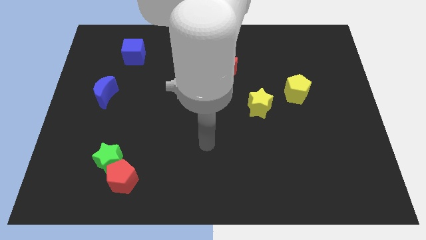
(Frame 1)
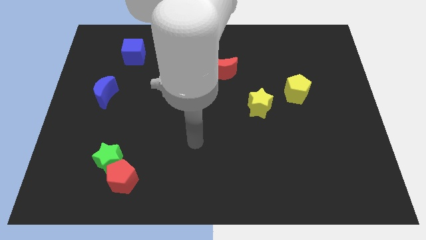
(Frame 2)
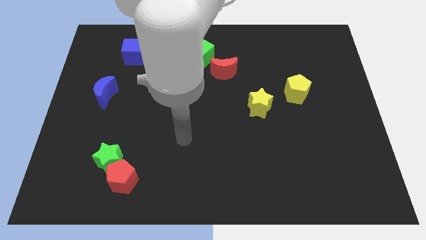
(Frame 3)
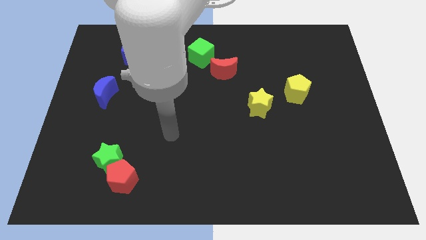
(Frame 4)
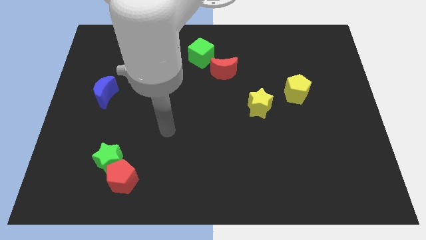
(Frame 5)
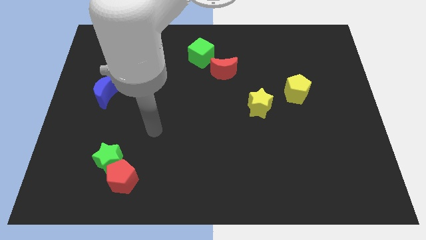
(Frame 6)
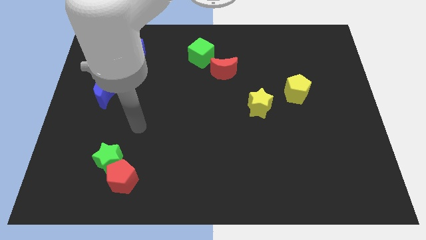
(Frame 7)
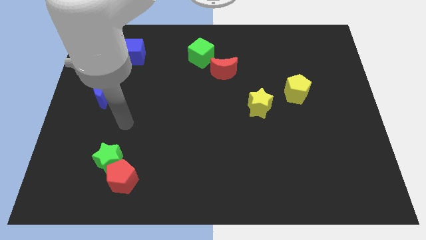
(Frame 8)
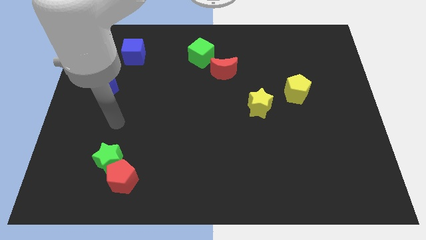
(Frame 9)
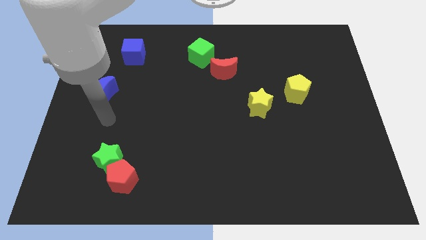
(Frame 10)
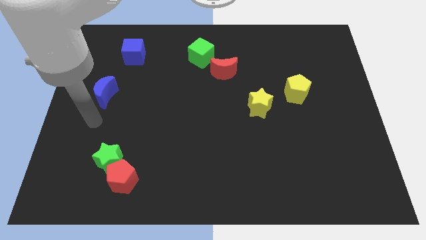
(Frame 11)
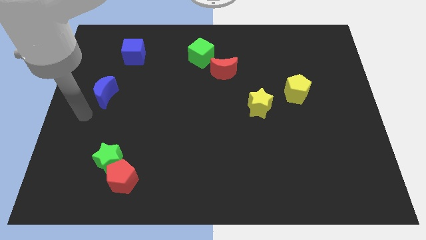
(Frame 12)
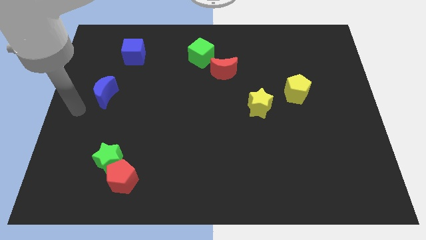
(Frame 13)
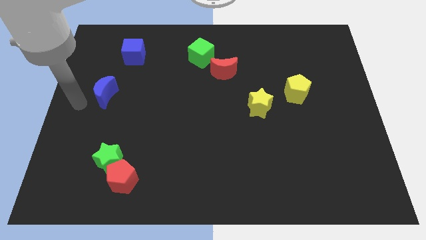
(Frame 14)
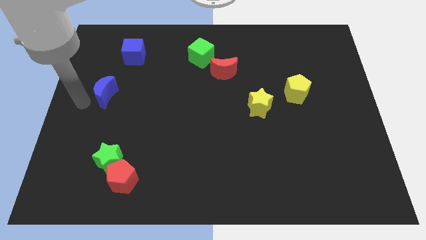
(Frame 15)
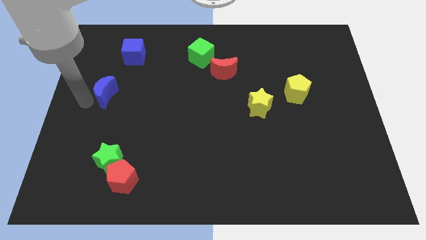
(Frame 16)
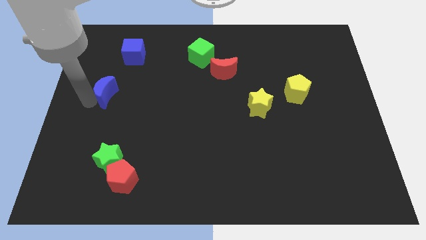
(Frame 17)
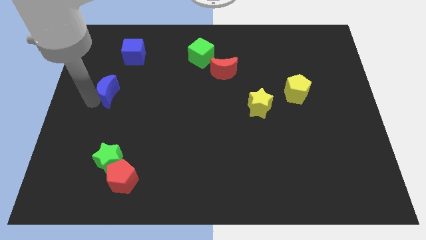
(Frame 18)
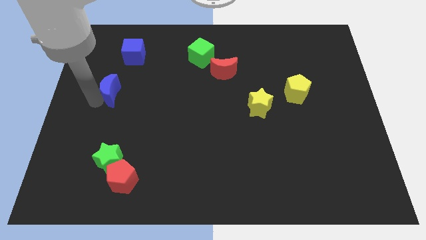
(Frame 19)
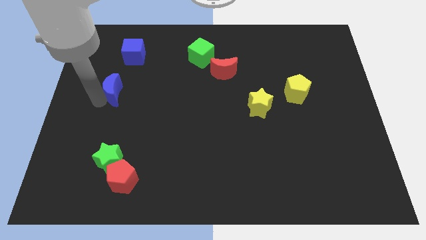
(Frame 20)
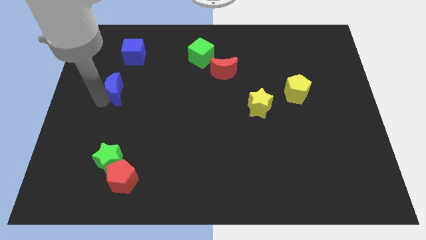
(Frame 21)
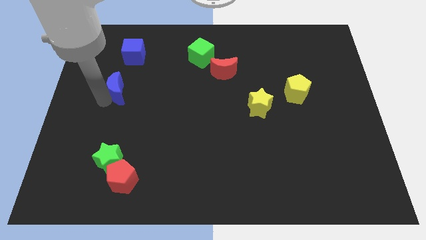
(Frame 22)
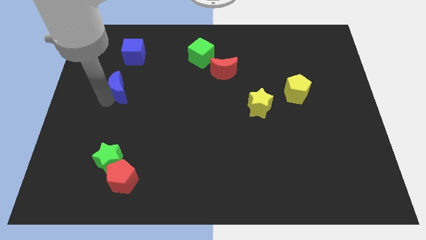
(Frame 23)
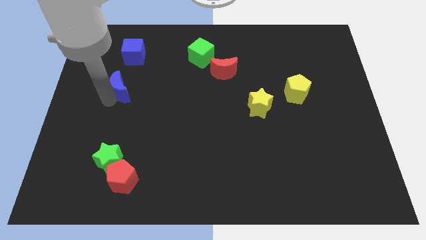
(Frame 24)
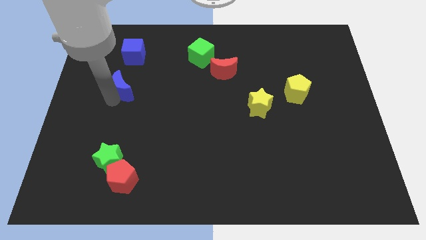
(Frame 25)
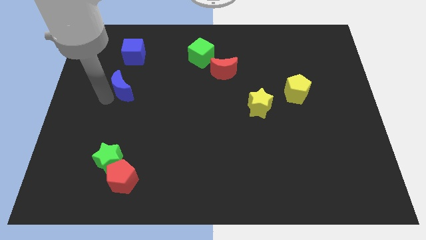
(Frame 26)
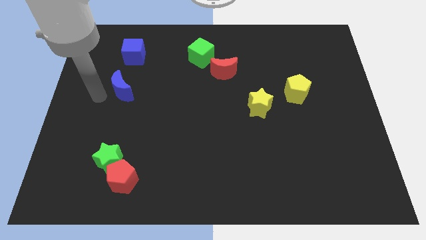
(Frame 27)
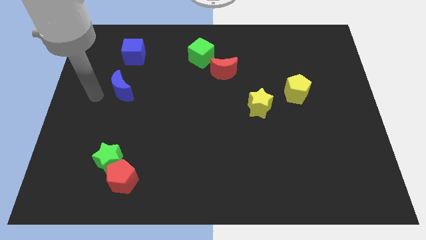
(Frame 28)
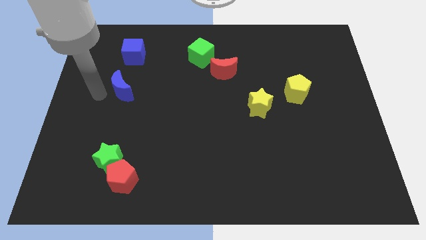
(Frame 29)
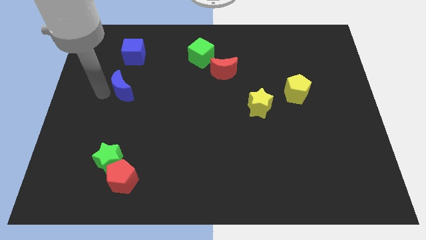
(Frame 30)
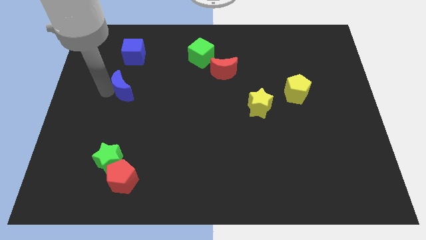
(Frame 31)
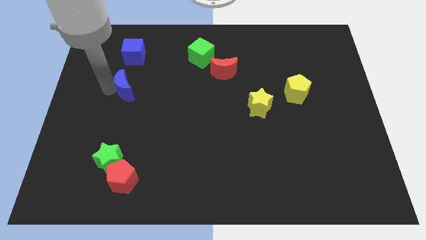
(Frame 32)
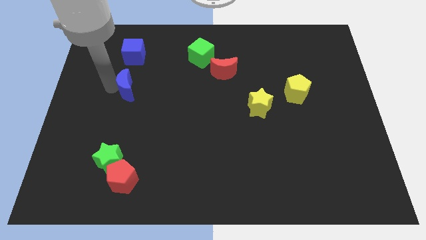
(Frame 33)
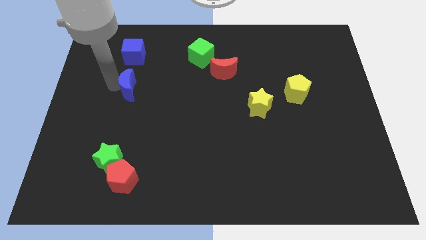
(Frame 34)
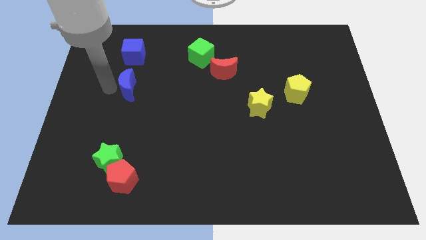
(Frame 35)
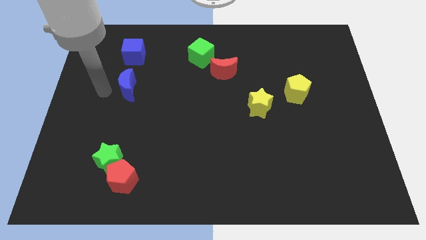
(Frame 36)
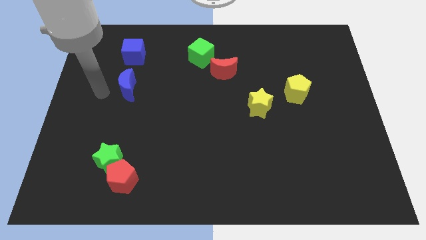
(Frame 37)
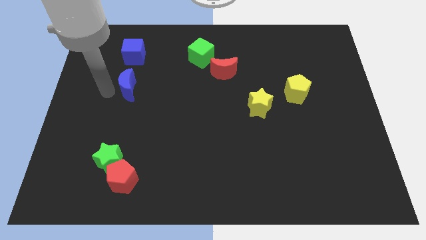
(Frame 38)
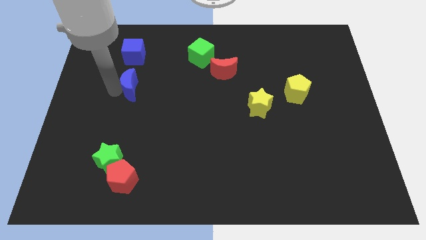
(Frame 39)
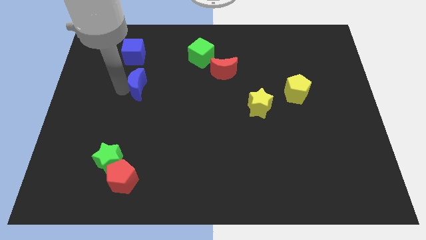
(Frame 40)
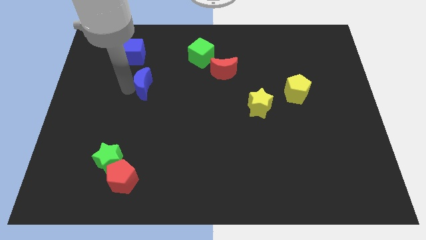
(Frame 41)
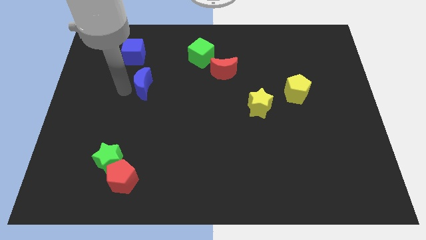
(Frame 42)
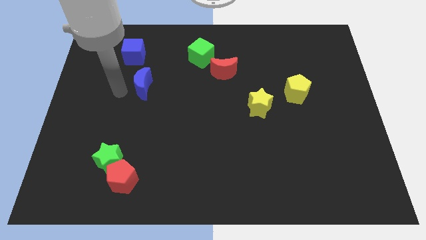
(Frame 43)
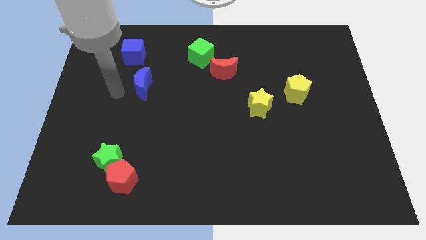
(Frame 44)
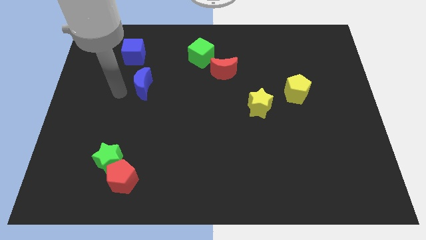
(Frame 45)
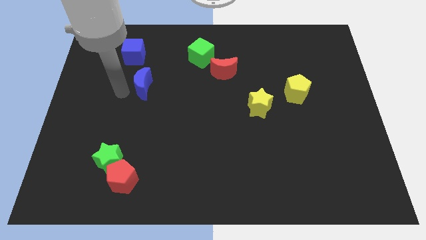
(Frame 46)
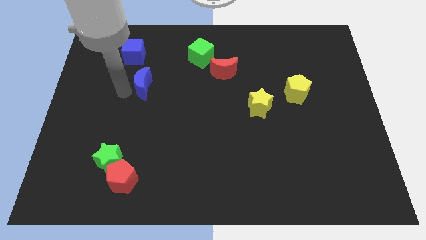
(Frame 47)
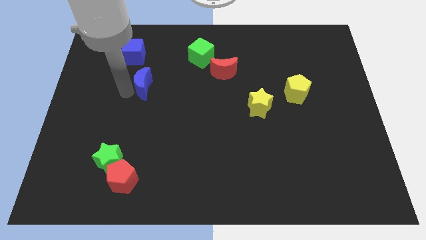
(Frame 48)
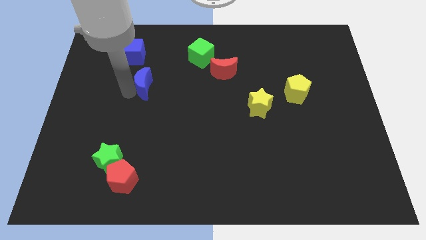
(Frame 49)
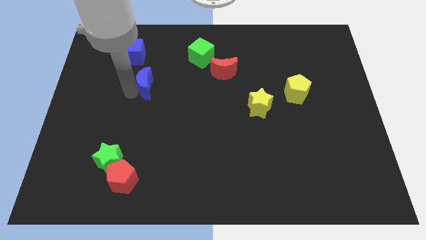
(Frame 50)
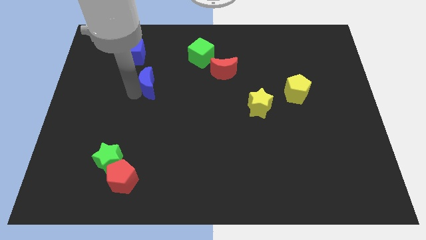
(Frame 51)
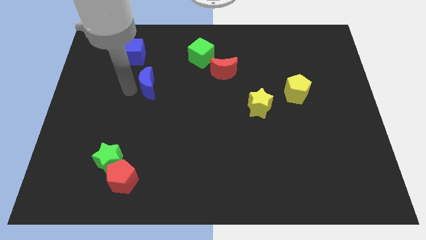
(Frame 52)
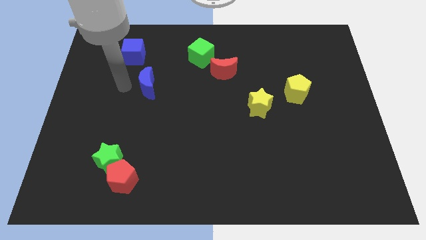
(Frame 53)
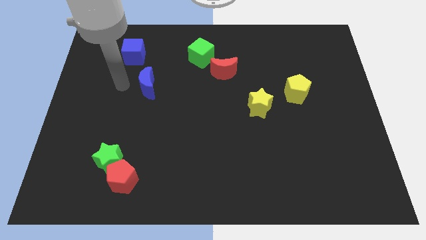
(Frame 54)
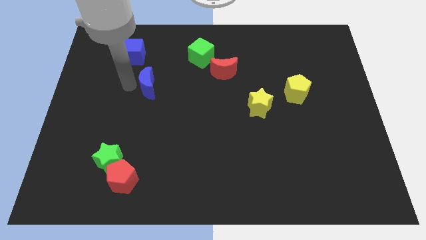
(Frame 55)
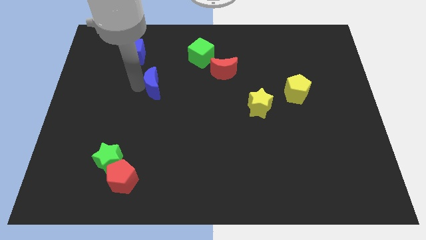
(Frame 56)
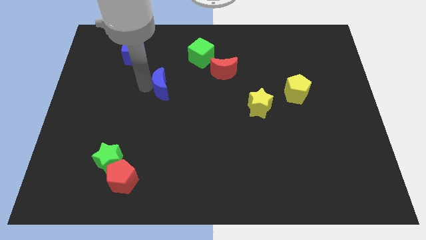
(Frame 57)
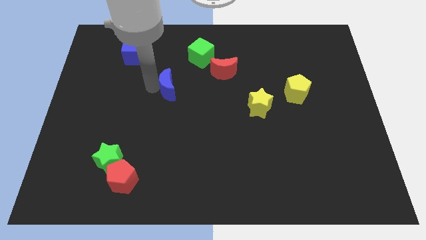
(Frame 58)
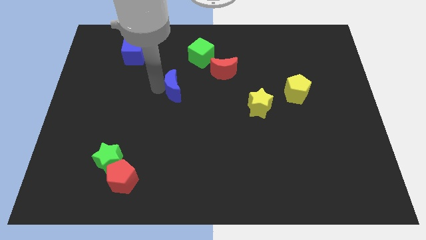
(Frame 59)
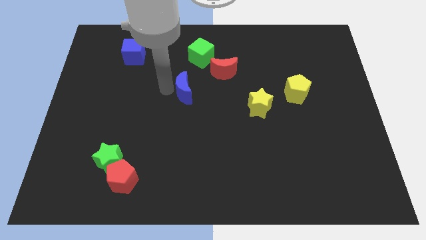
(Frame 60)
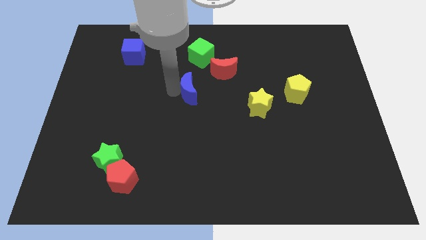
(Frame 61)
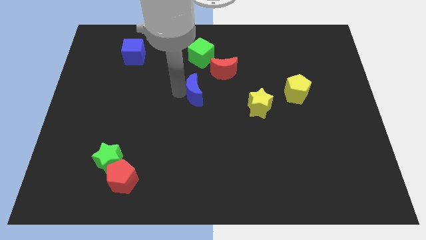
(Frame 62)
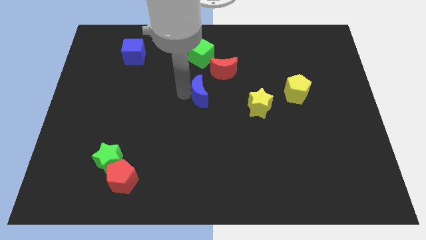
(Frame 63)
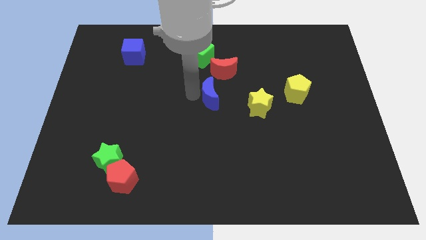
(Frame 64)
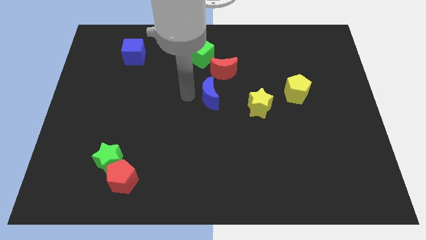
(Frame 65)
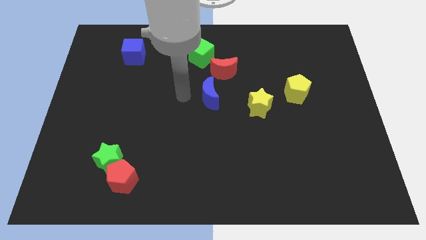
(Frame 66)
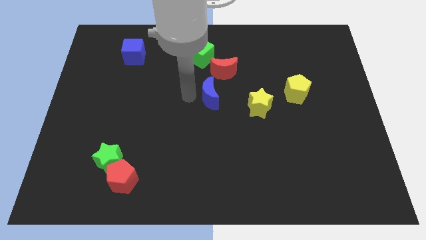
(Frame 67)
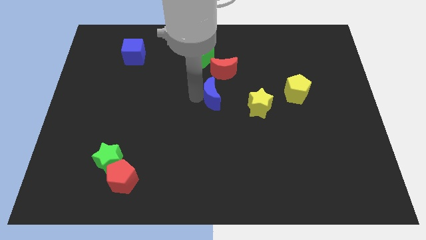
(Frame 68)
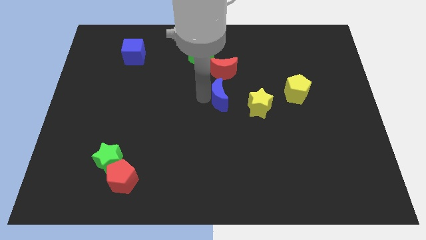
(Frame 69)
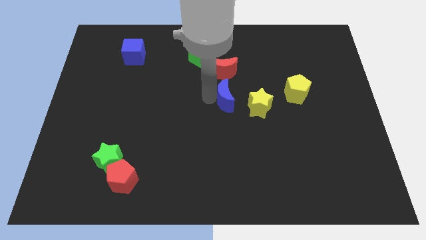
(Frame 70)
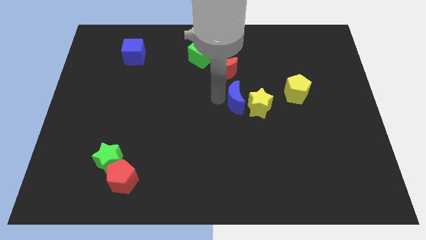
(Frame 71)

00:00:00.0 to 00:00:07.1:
push the blue moon next to the yellow star

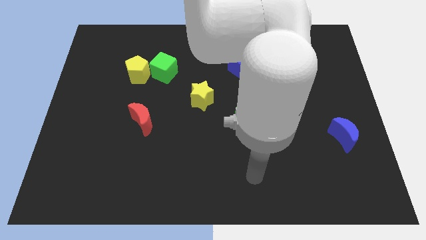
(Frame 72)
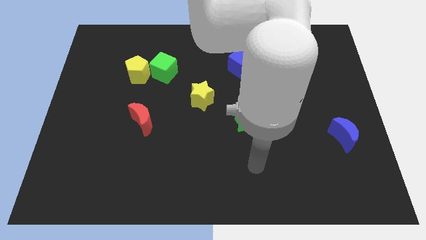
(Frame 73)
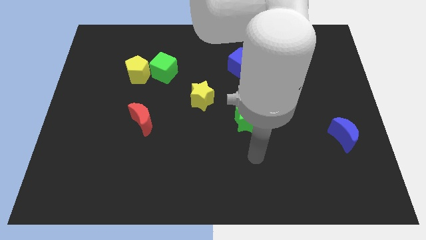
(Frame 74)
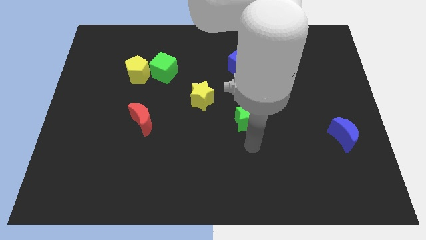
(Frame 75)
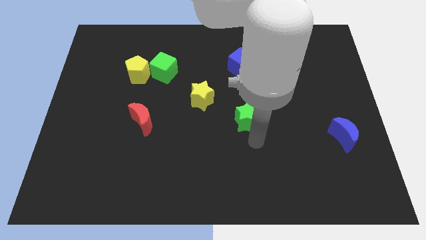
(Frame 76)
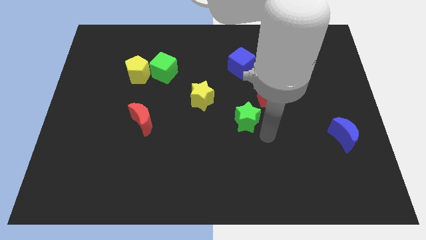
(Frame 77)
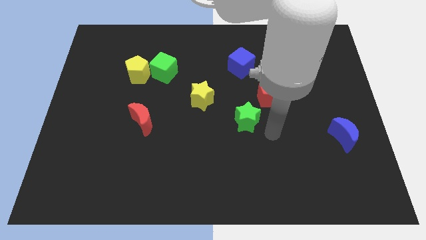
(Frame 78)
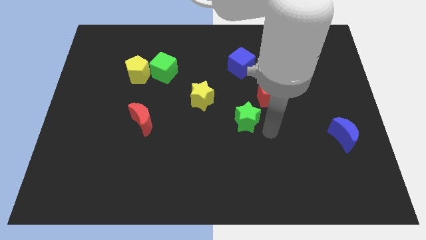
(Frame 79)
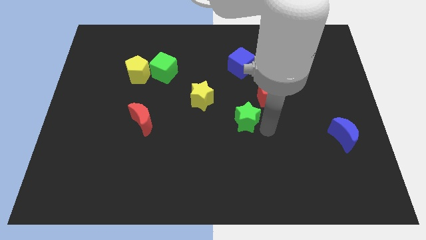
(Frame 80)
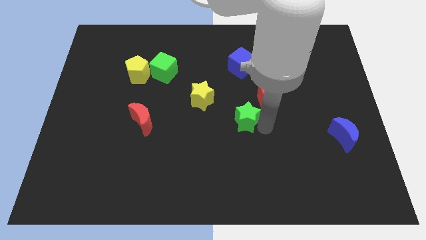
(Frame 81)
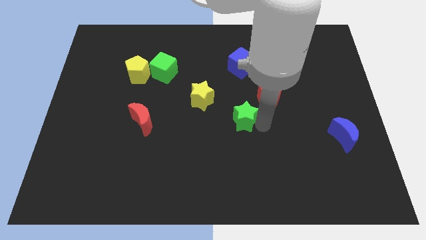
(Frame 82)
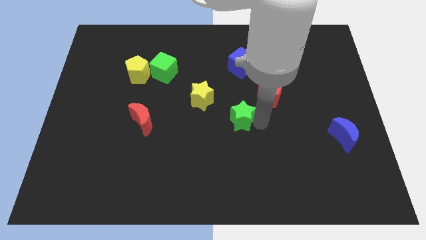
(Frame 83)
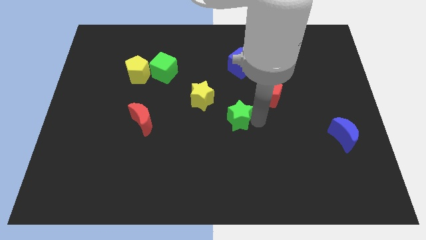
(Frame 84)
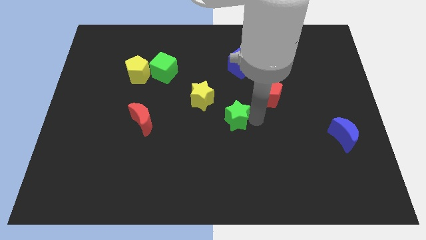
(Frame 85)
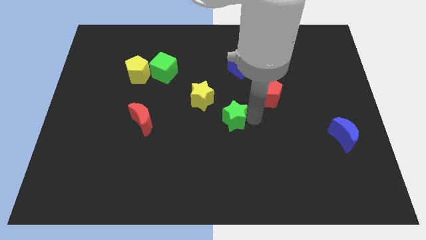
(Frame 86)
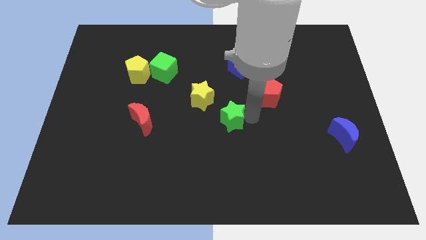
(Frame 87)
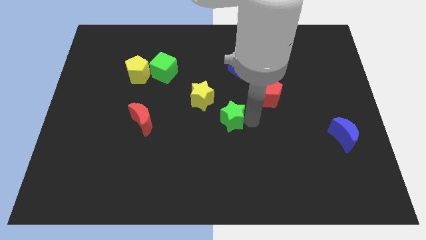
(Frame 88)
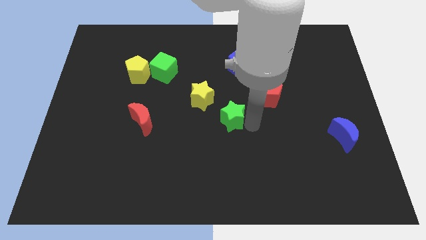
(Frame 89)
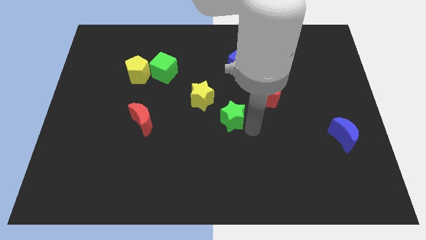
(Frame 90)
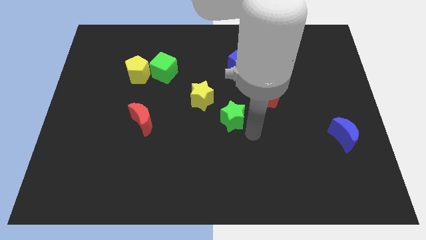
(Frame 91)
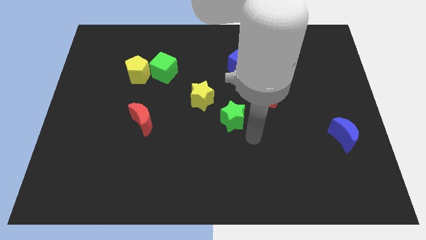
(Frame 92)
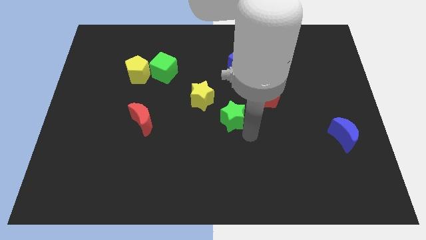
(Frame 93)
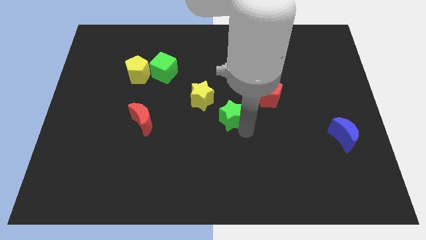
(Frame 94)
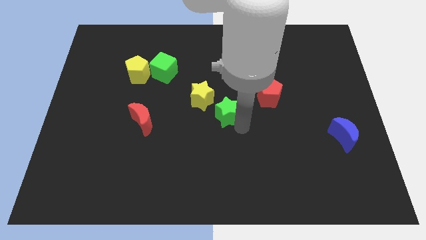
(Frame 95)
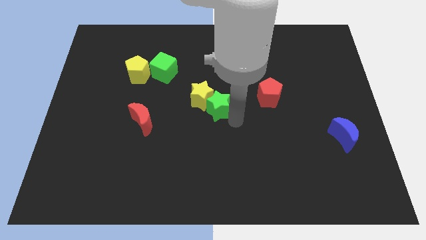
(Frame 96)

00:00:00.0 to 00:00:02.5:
push the green star to the yellow star
